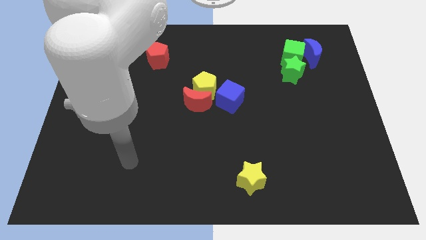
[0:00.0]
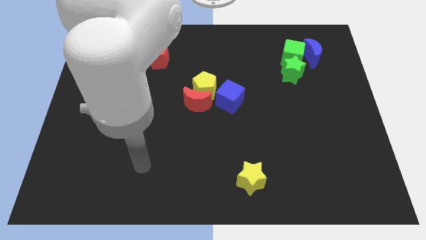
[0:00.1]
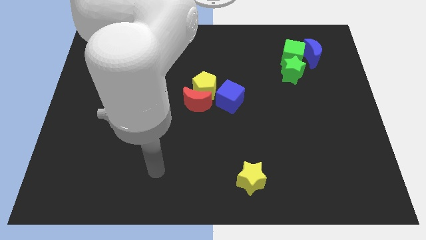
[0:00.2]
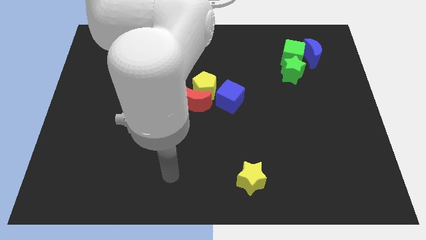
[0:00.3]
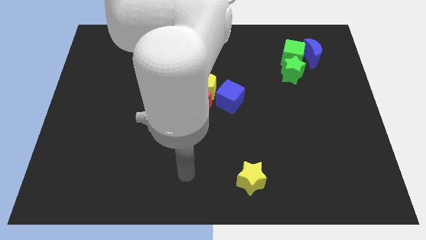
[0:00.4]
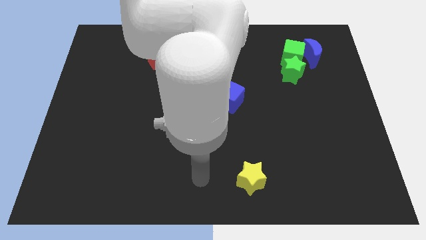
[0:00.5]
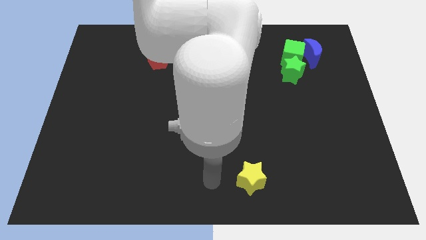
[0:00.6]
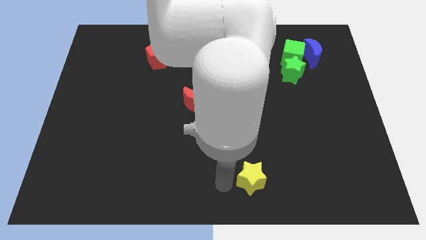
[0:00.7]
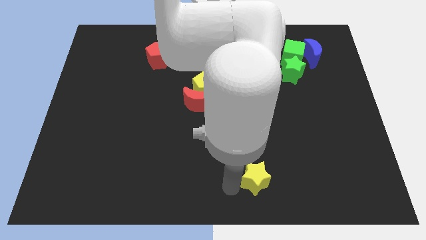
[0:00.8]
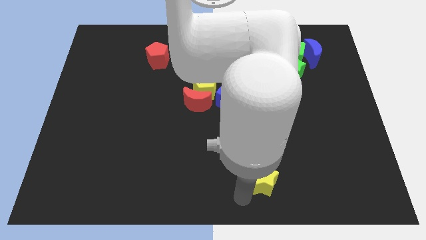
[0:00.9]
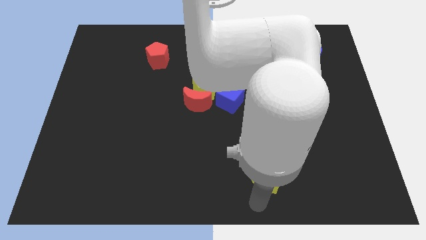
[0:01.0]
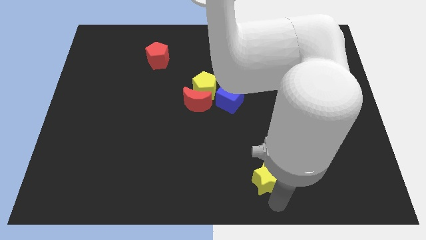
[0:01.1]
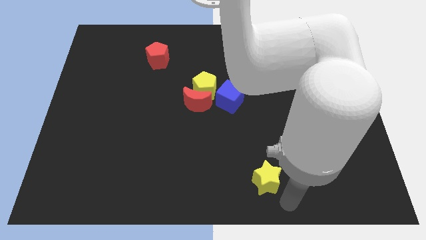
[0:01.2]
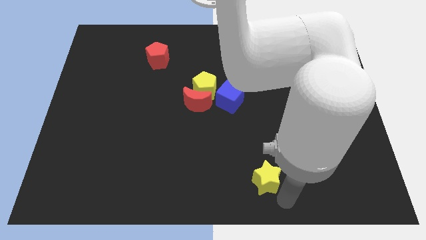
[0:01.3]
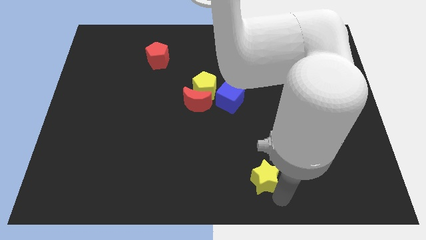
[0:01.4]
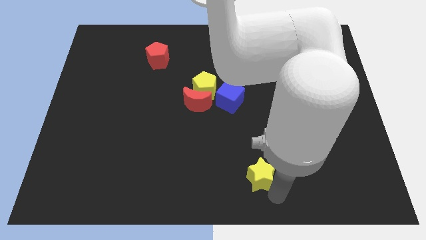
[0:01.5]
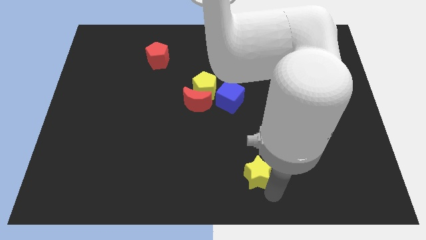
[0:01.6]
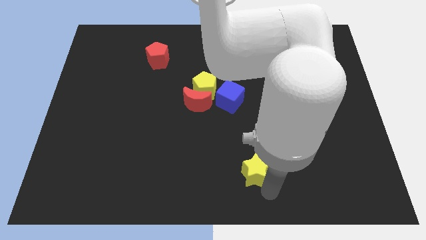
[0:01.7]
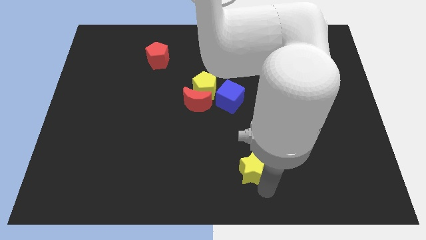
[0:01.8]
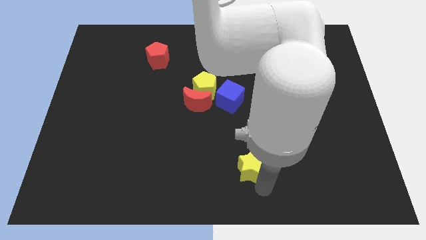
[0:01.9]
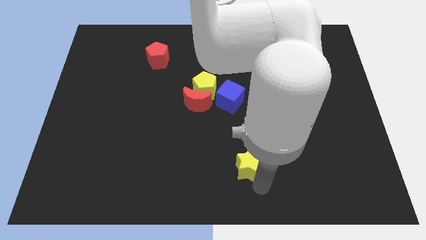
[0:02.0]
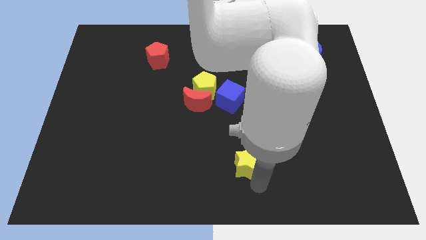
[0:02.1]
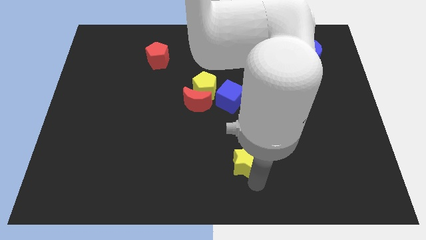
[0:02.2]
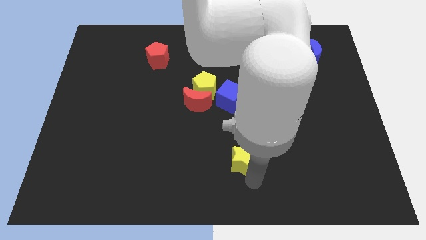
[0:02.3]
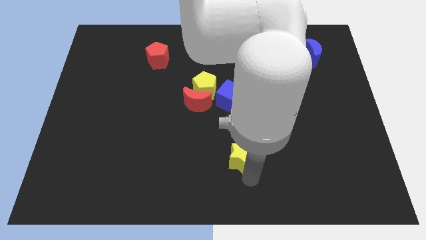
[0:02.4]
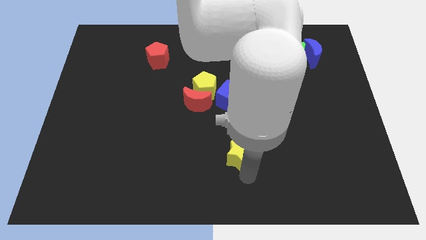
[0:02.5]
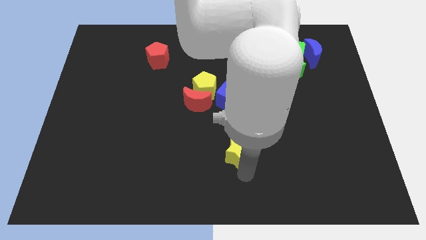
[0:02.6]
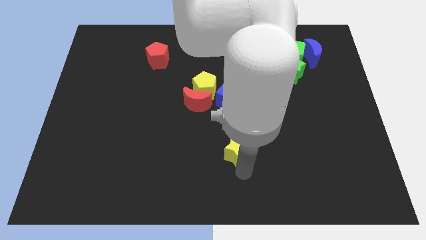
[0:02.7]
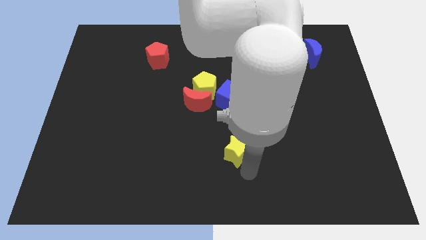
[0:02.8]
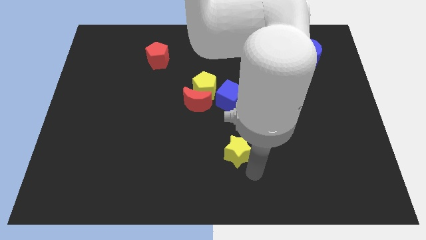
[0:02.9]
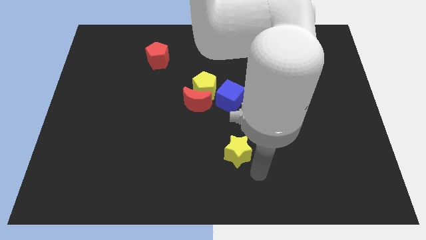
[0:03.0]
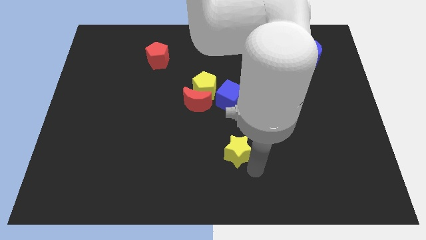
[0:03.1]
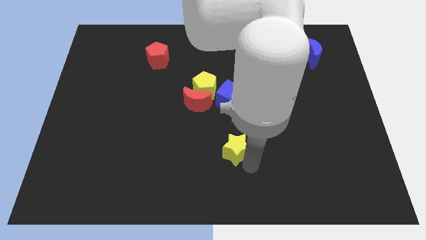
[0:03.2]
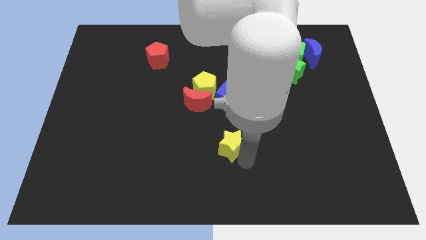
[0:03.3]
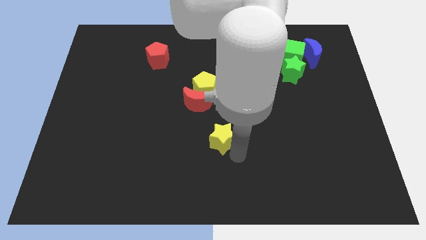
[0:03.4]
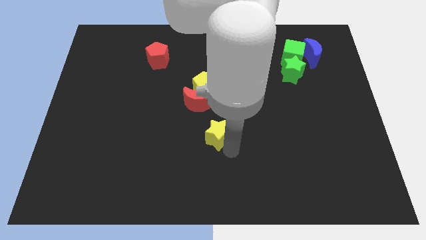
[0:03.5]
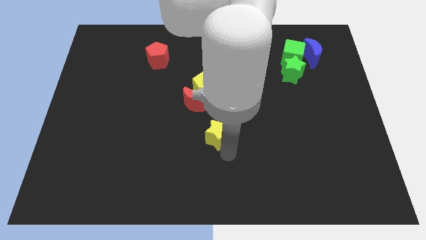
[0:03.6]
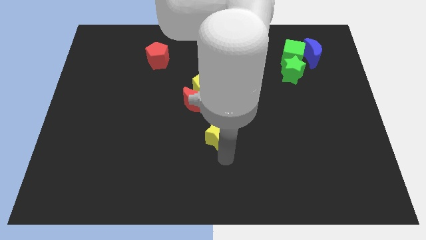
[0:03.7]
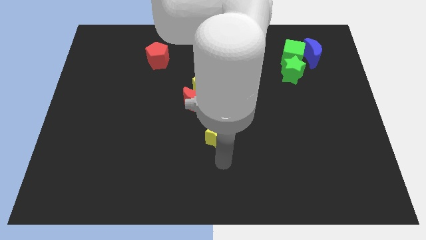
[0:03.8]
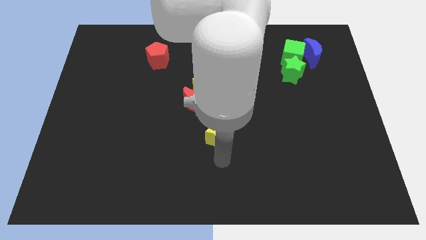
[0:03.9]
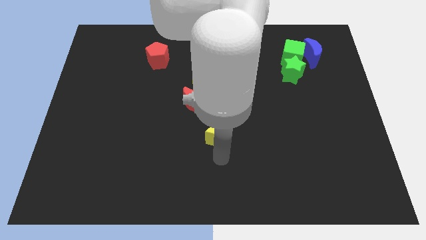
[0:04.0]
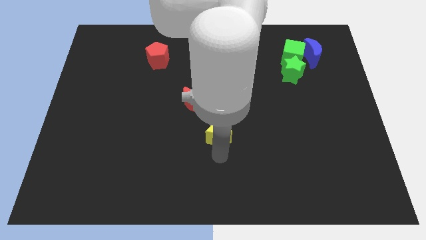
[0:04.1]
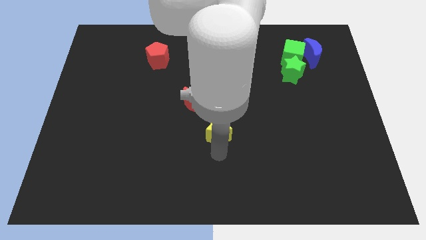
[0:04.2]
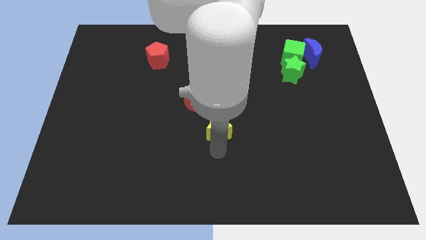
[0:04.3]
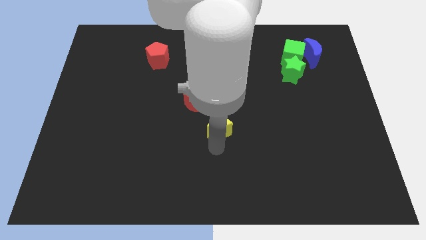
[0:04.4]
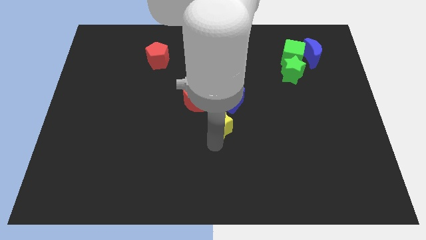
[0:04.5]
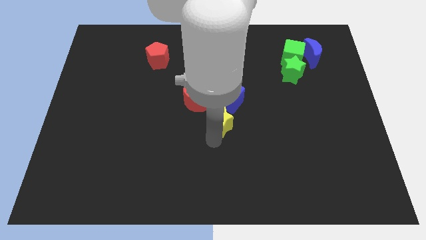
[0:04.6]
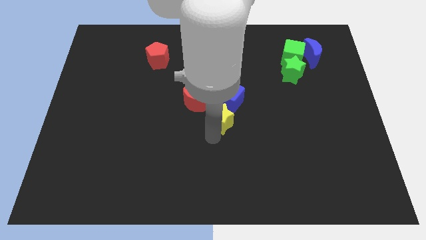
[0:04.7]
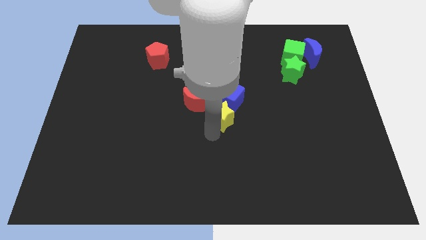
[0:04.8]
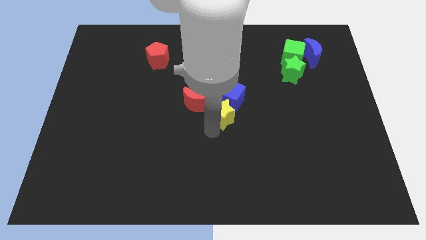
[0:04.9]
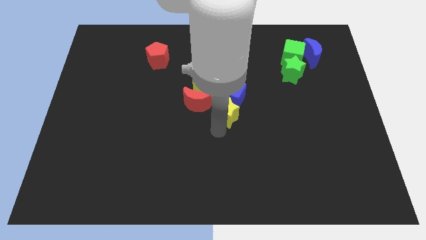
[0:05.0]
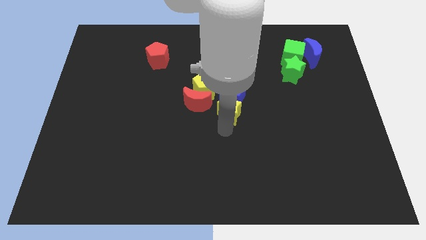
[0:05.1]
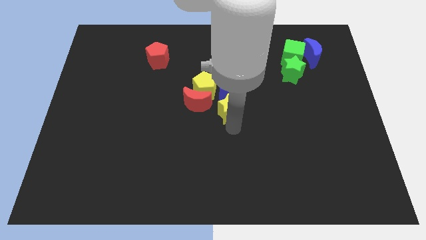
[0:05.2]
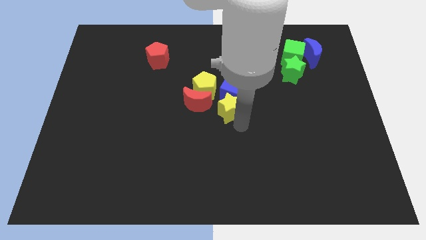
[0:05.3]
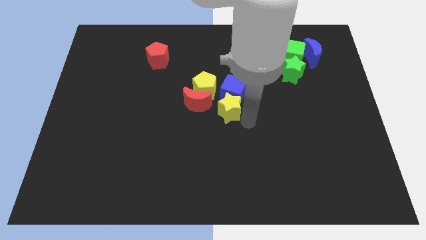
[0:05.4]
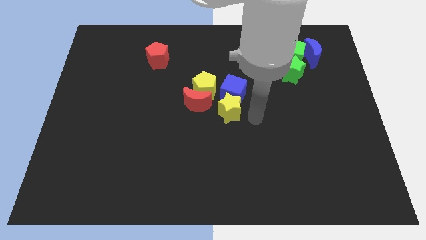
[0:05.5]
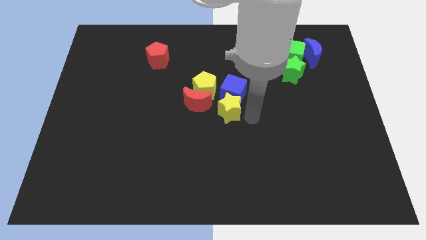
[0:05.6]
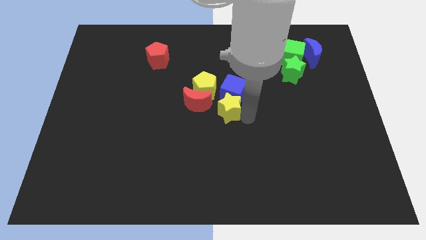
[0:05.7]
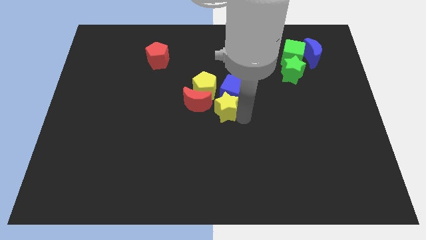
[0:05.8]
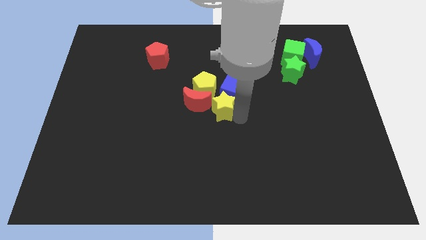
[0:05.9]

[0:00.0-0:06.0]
move the yellow star next to the red moon
